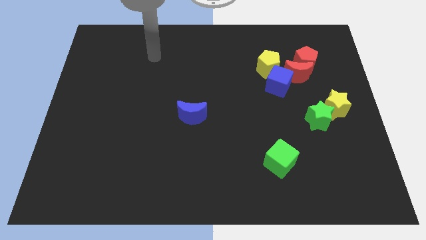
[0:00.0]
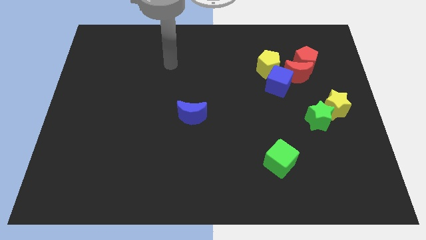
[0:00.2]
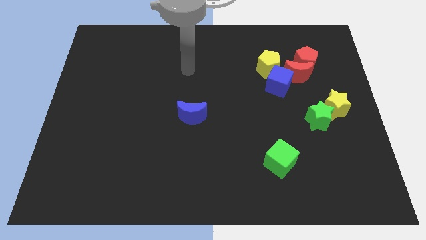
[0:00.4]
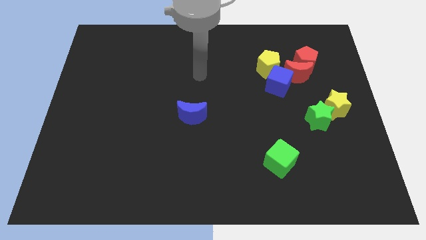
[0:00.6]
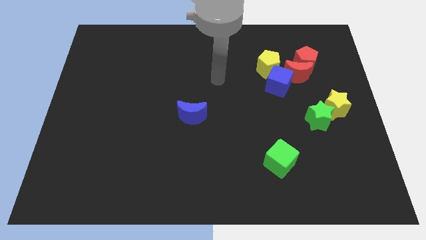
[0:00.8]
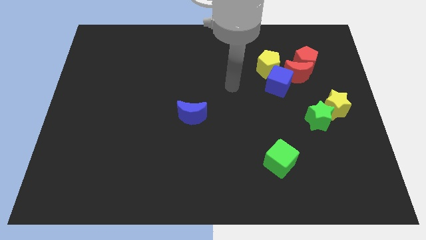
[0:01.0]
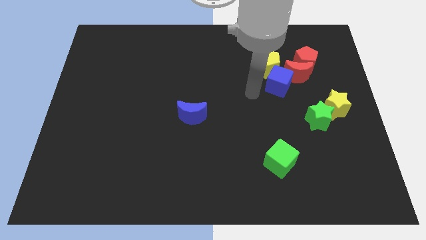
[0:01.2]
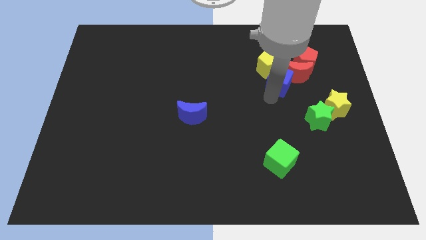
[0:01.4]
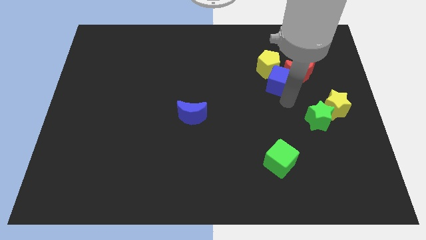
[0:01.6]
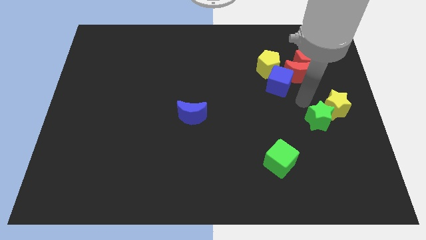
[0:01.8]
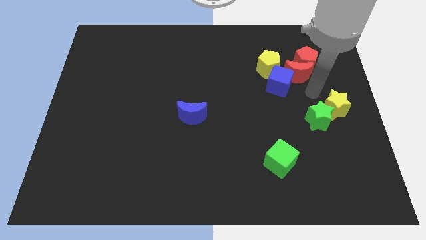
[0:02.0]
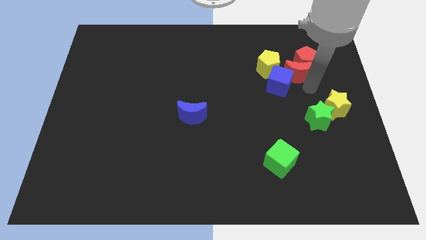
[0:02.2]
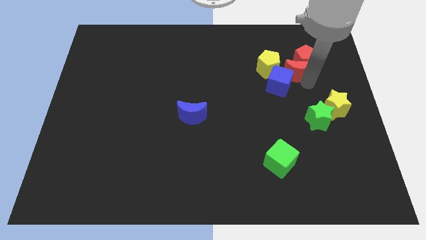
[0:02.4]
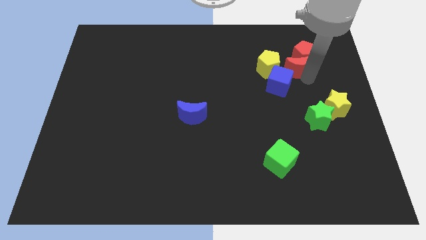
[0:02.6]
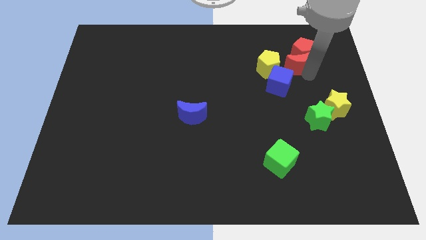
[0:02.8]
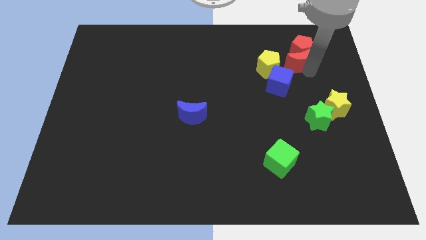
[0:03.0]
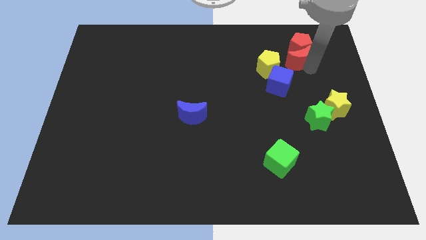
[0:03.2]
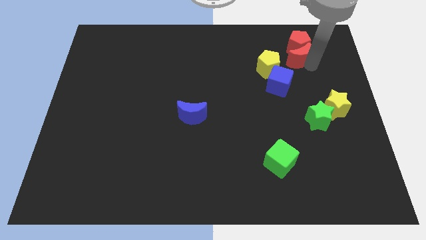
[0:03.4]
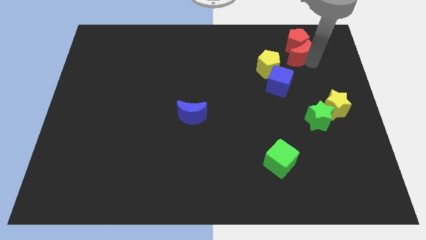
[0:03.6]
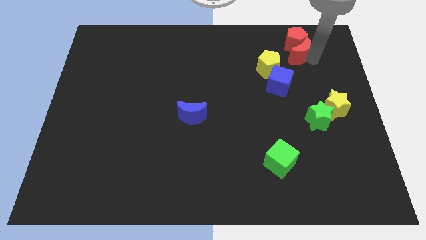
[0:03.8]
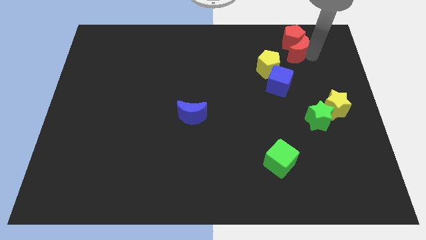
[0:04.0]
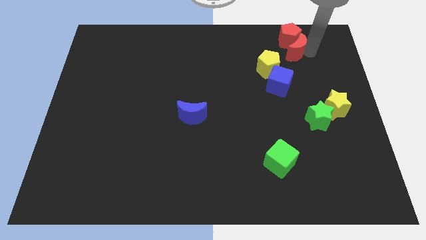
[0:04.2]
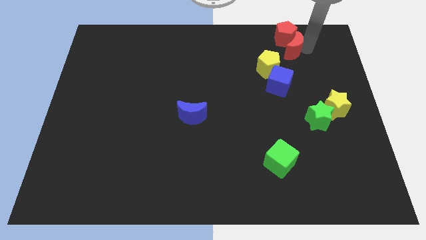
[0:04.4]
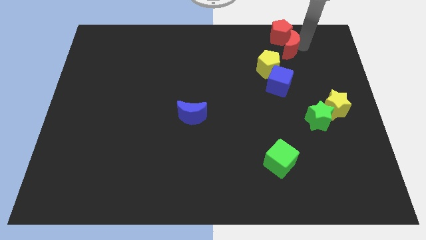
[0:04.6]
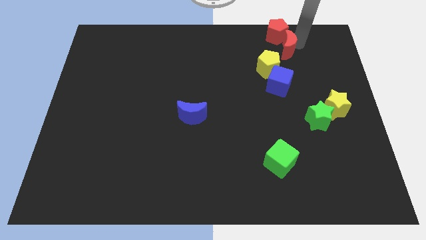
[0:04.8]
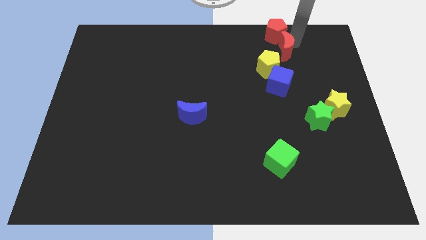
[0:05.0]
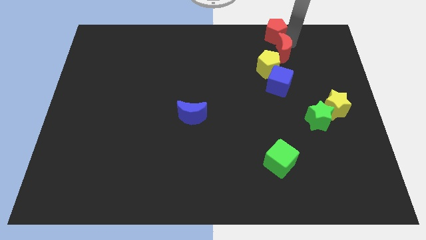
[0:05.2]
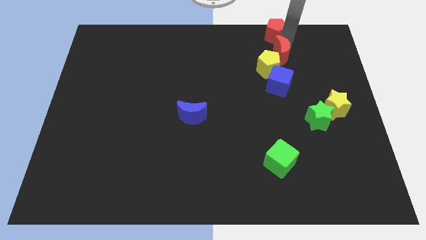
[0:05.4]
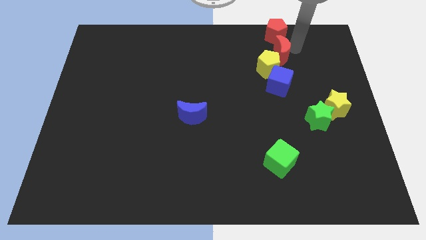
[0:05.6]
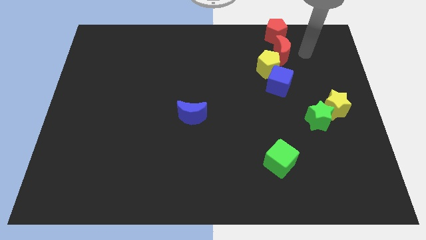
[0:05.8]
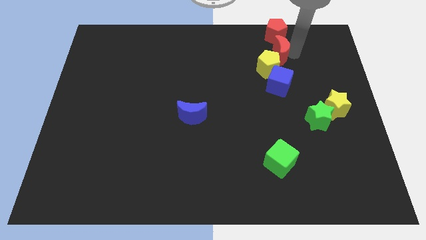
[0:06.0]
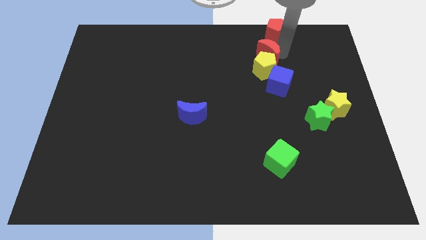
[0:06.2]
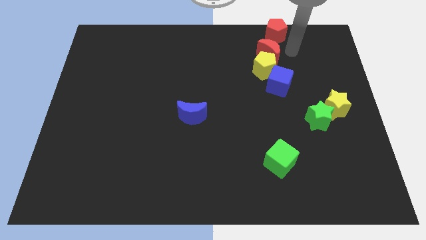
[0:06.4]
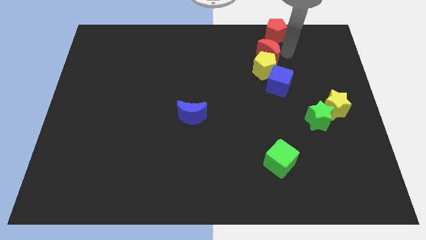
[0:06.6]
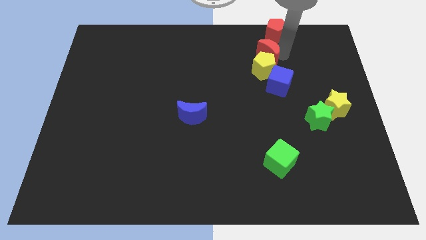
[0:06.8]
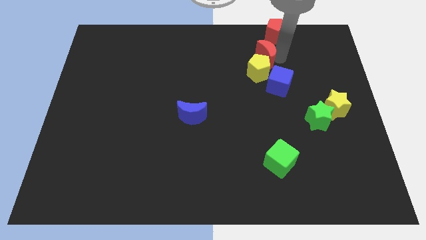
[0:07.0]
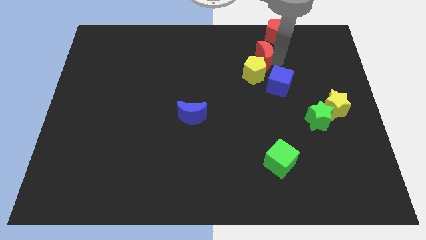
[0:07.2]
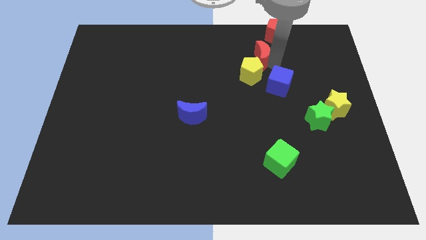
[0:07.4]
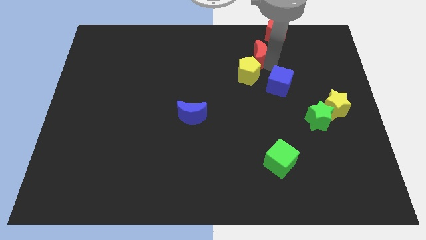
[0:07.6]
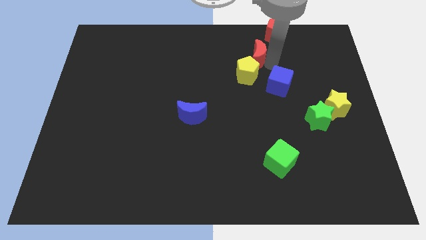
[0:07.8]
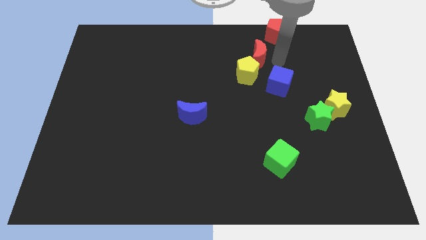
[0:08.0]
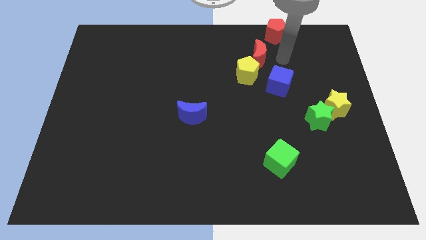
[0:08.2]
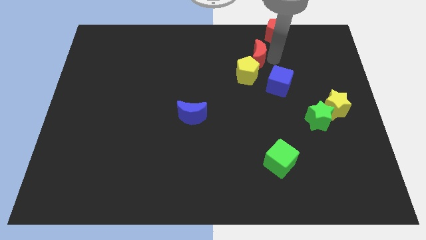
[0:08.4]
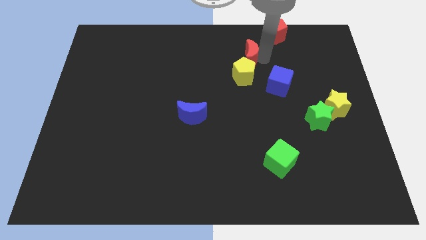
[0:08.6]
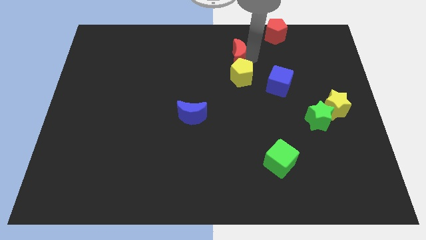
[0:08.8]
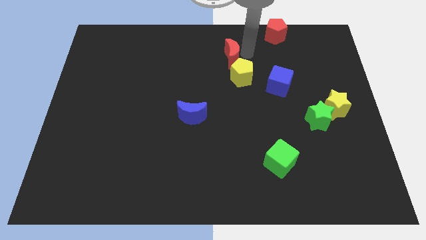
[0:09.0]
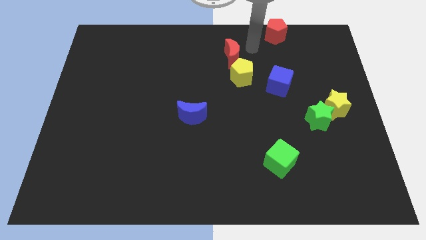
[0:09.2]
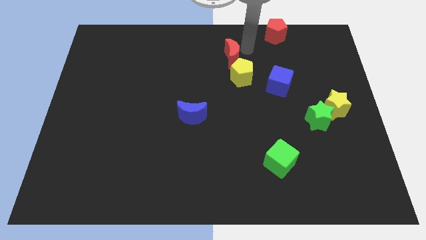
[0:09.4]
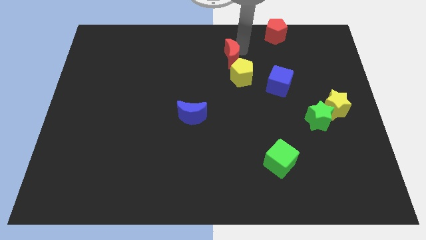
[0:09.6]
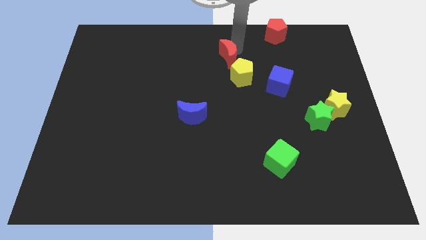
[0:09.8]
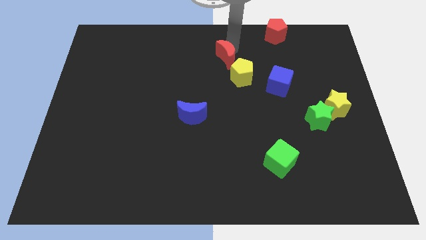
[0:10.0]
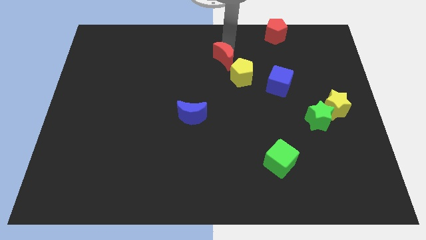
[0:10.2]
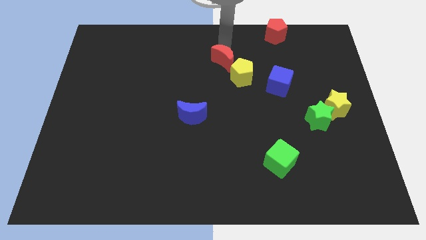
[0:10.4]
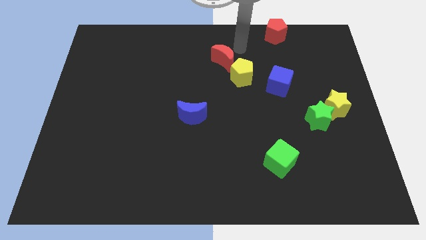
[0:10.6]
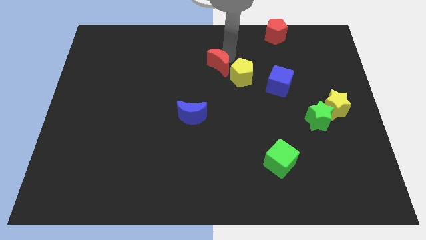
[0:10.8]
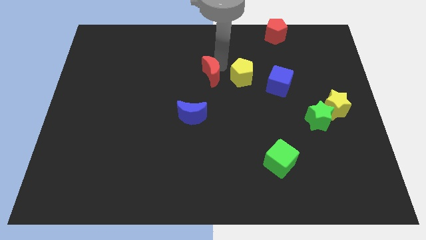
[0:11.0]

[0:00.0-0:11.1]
put the red moon to the top of the blue moon

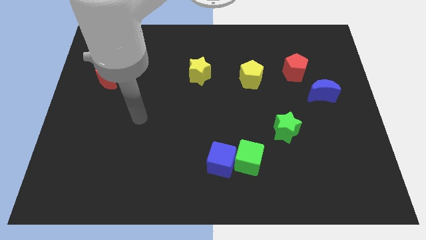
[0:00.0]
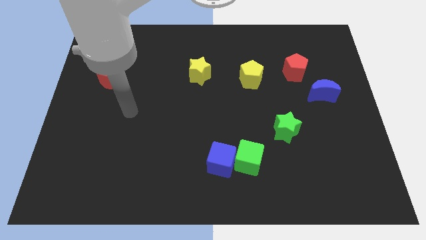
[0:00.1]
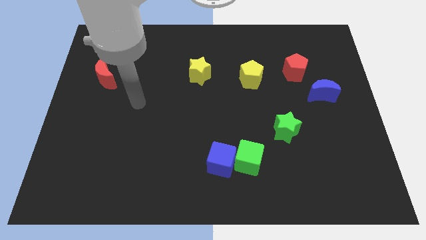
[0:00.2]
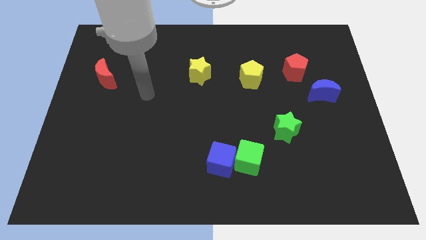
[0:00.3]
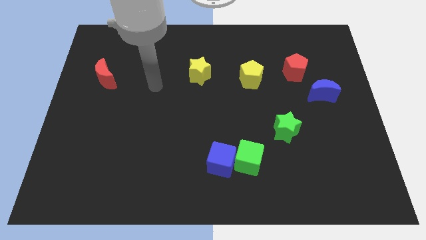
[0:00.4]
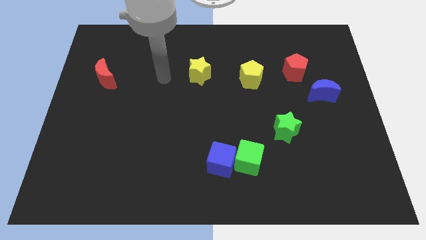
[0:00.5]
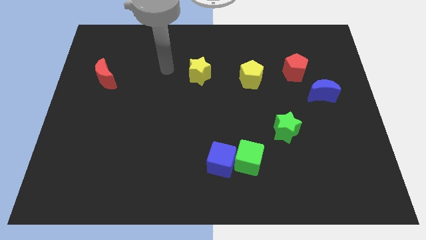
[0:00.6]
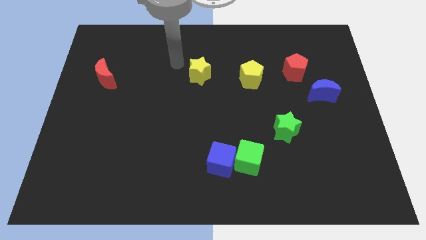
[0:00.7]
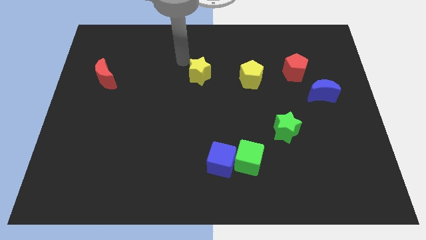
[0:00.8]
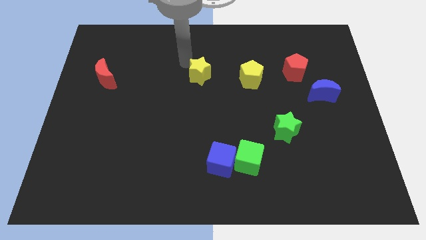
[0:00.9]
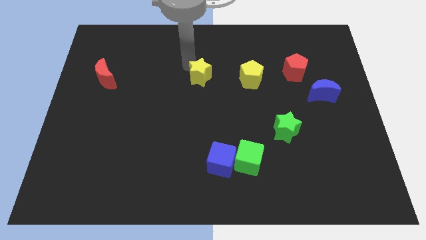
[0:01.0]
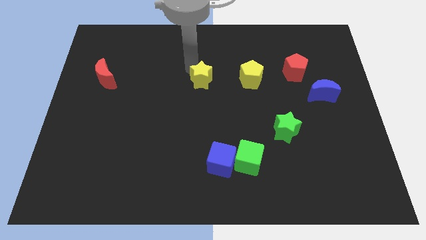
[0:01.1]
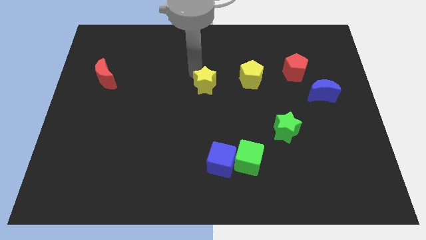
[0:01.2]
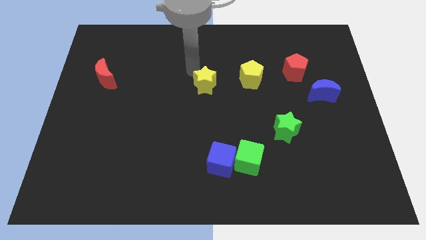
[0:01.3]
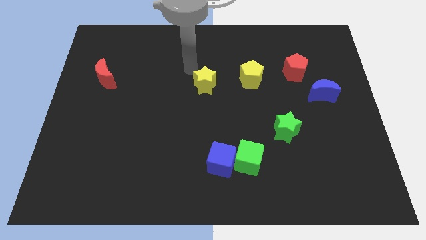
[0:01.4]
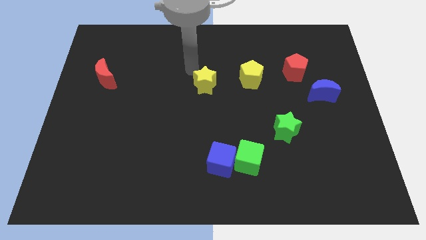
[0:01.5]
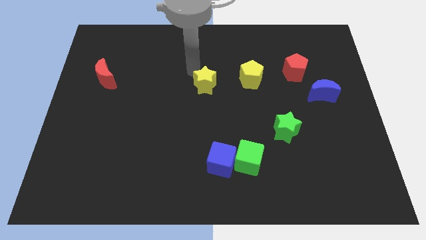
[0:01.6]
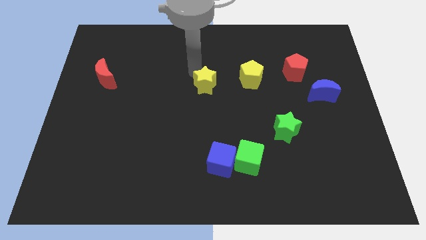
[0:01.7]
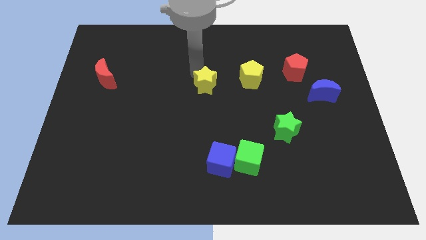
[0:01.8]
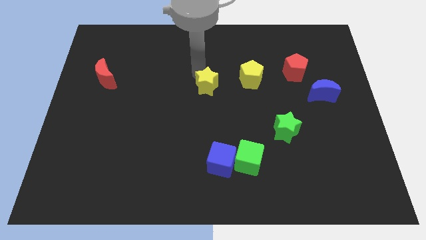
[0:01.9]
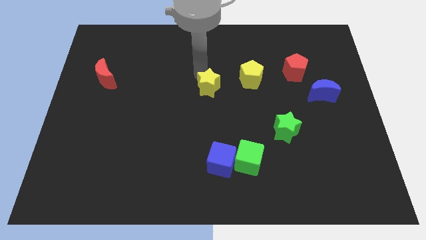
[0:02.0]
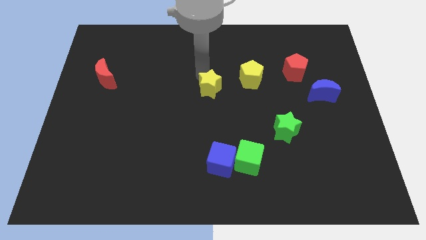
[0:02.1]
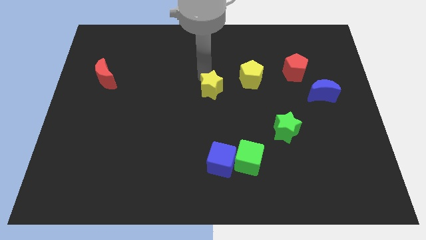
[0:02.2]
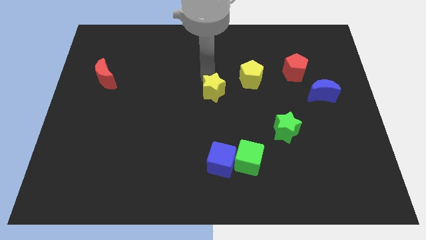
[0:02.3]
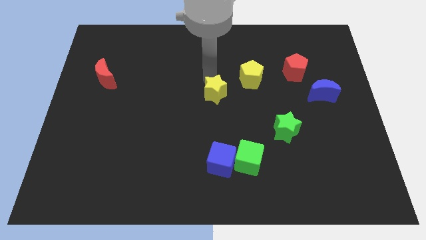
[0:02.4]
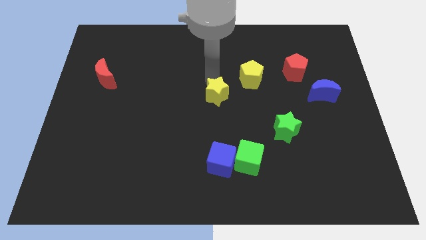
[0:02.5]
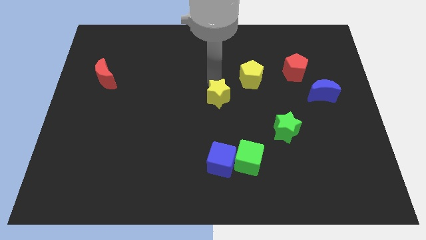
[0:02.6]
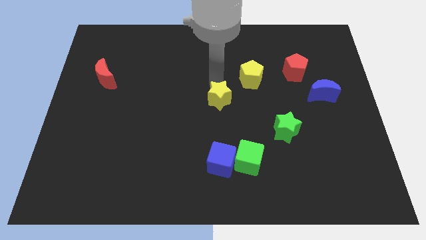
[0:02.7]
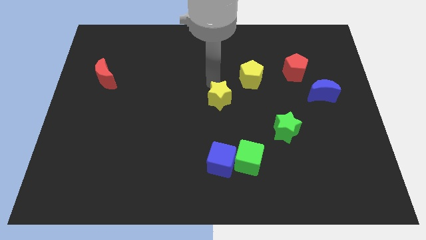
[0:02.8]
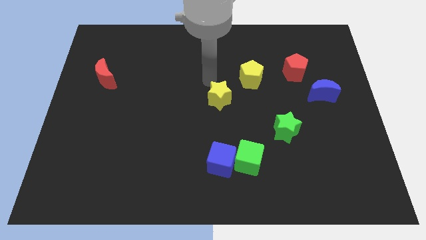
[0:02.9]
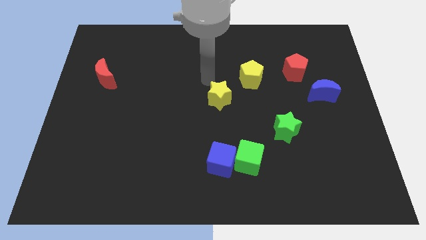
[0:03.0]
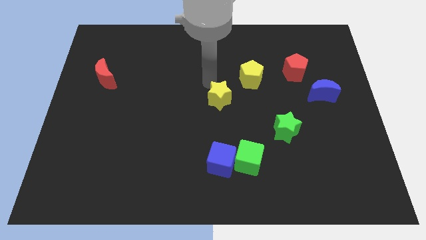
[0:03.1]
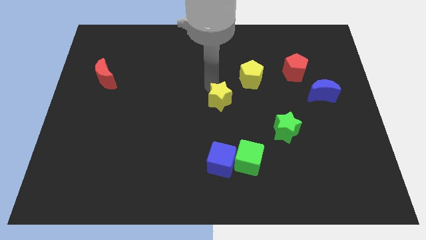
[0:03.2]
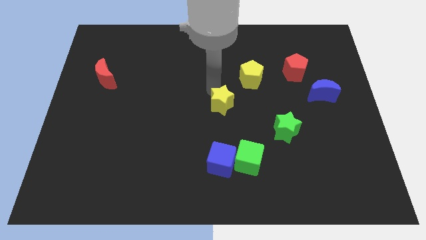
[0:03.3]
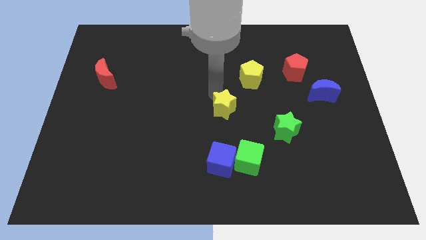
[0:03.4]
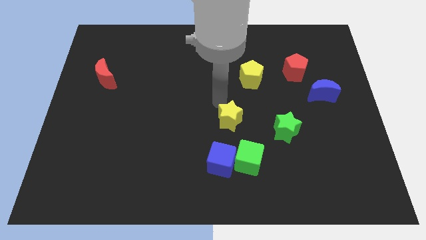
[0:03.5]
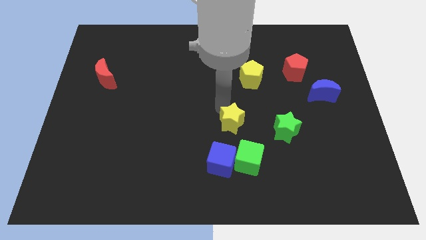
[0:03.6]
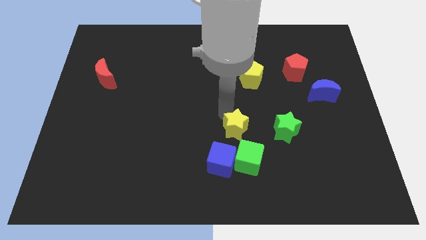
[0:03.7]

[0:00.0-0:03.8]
push the yellow star to the top right of the blue cube
